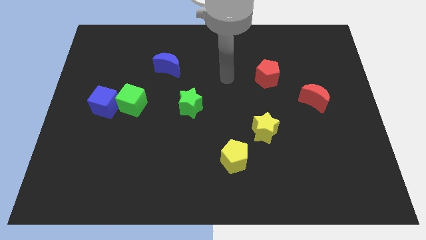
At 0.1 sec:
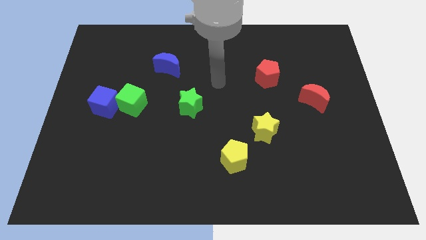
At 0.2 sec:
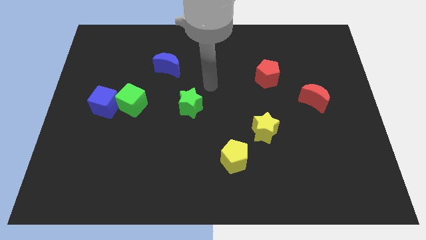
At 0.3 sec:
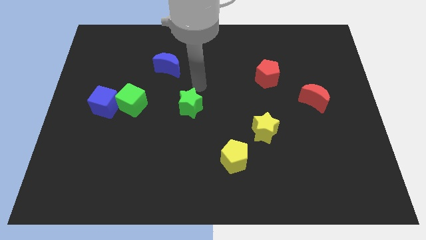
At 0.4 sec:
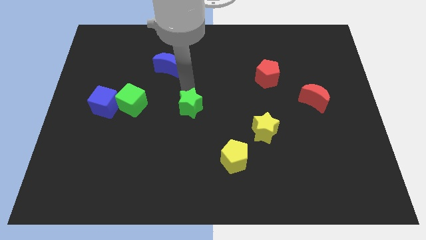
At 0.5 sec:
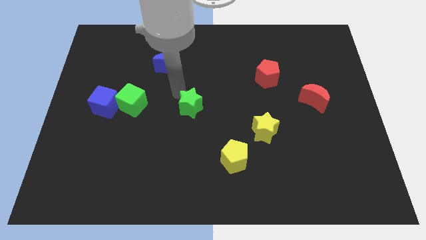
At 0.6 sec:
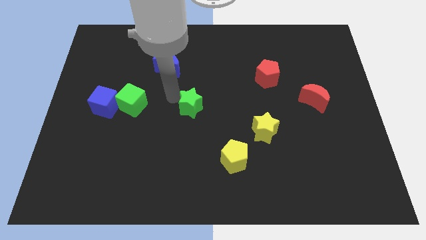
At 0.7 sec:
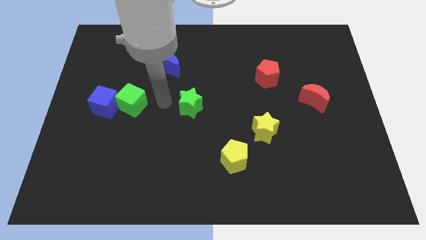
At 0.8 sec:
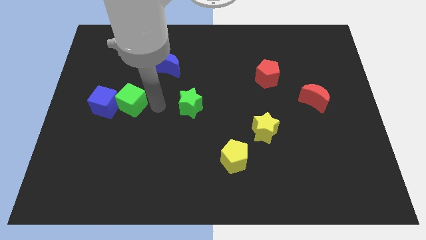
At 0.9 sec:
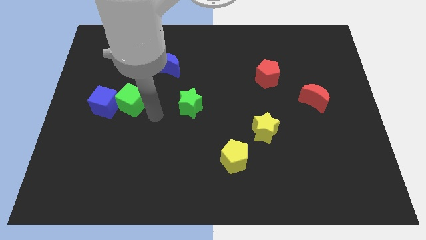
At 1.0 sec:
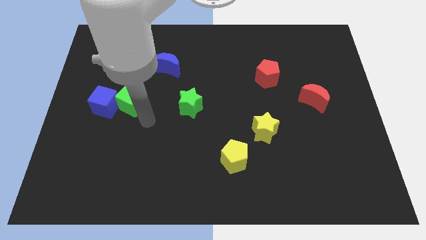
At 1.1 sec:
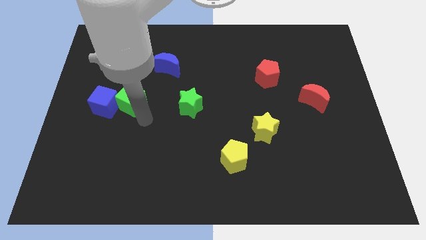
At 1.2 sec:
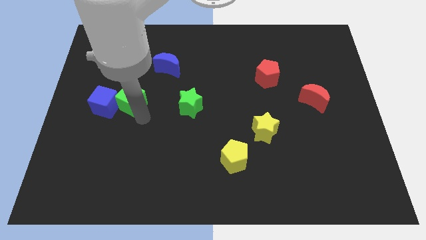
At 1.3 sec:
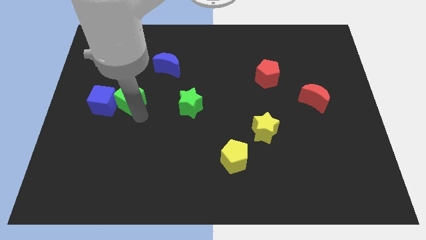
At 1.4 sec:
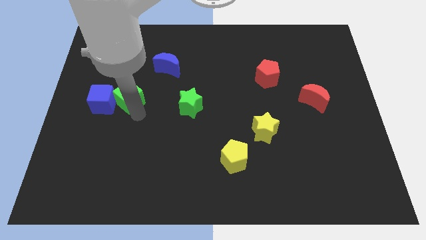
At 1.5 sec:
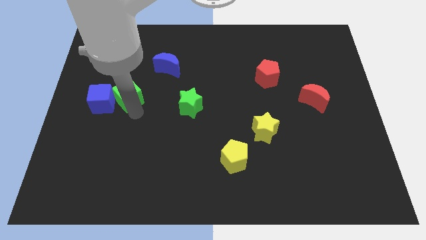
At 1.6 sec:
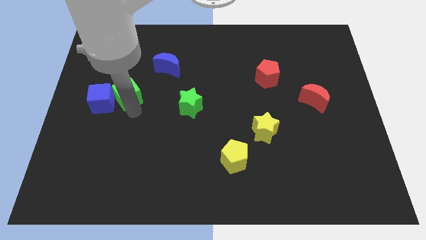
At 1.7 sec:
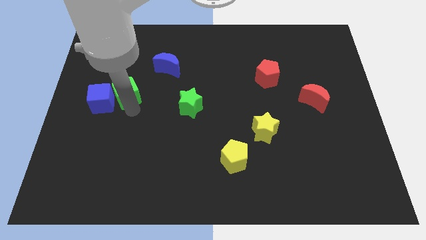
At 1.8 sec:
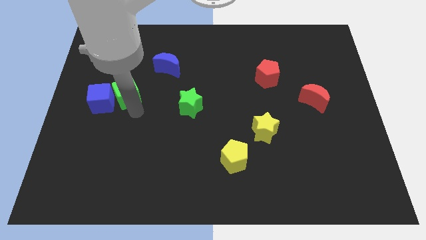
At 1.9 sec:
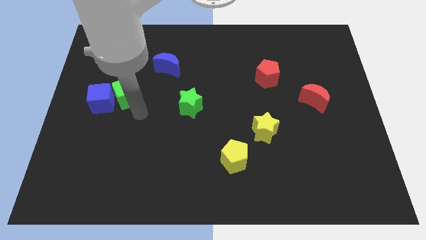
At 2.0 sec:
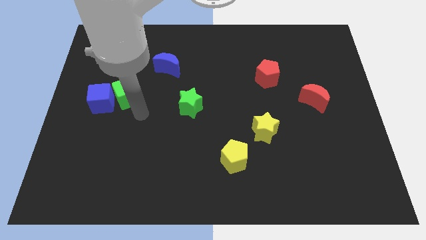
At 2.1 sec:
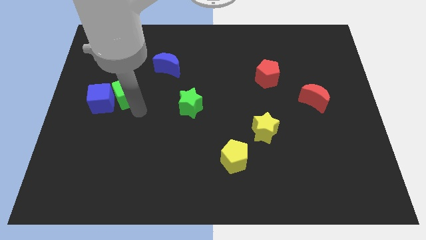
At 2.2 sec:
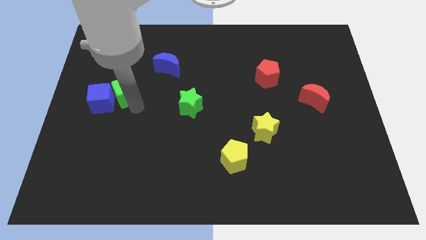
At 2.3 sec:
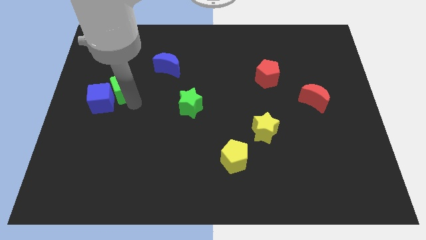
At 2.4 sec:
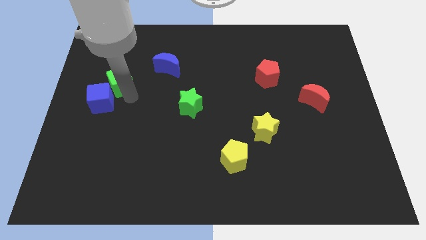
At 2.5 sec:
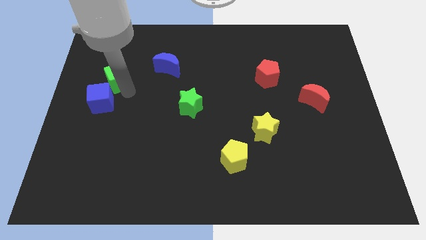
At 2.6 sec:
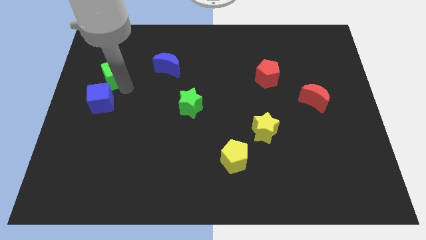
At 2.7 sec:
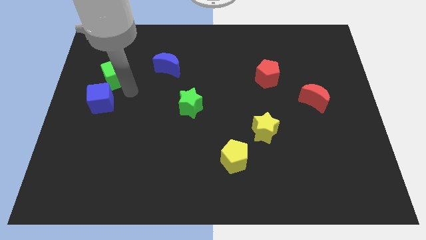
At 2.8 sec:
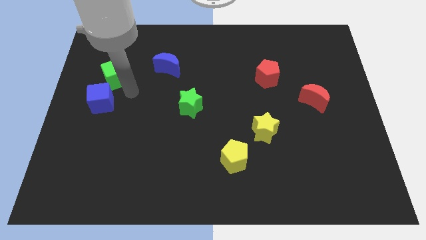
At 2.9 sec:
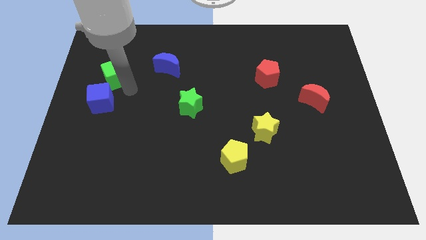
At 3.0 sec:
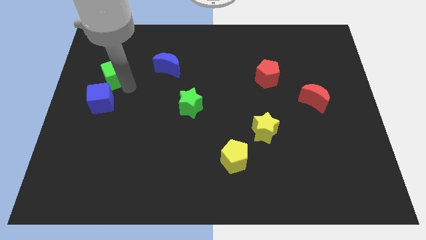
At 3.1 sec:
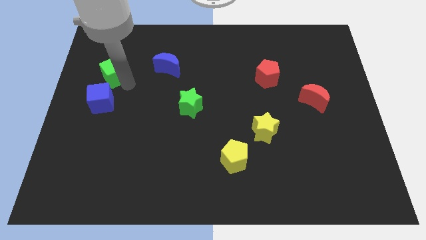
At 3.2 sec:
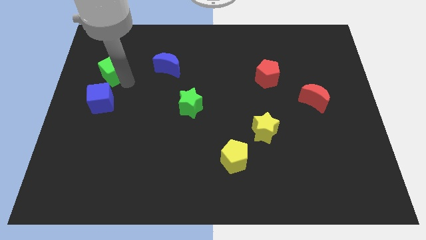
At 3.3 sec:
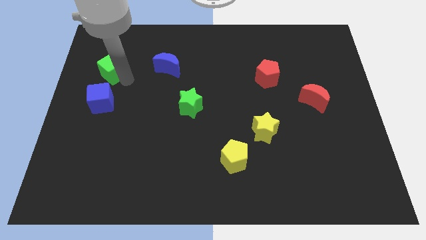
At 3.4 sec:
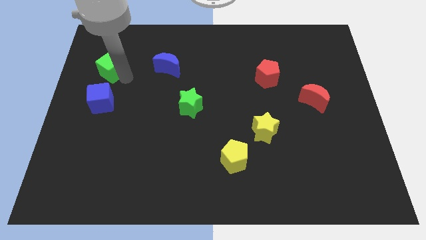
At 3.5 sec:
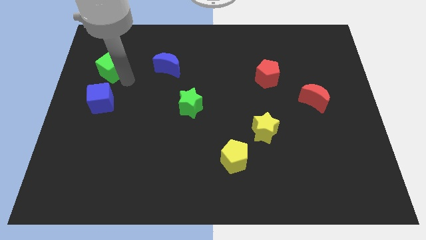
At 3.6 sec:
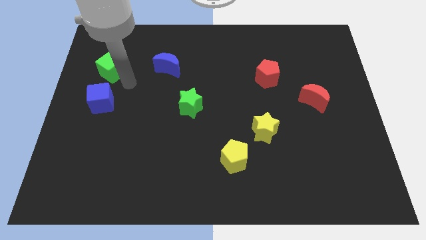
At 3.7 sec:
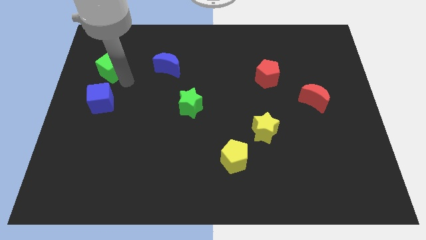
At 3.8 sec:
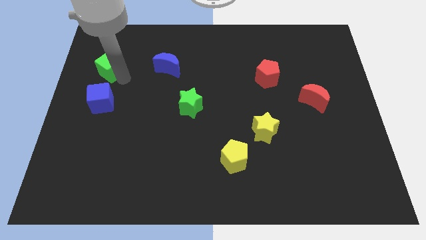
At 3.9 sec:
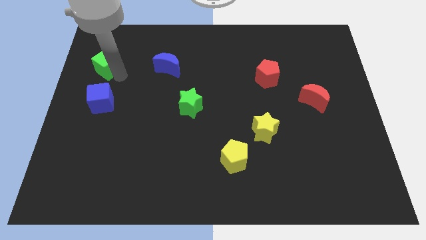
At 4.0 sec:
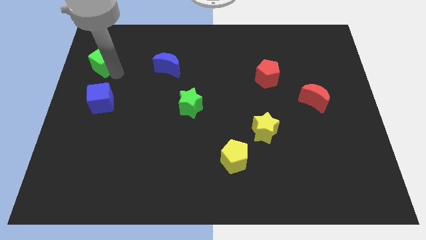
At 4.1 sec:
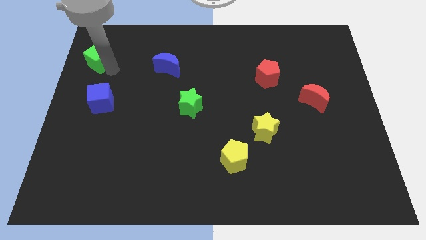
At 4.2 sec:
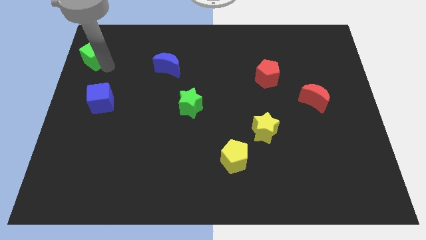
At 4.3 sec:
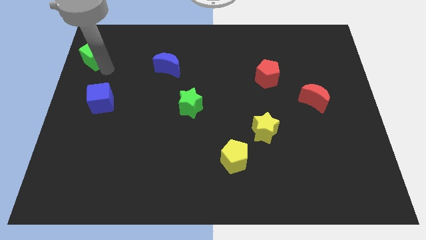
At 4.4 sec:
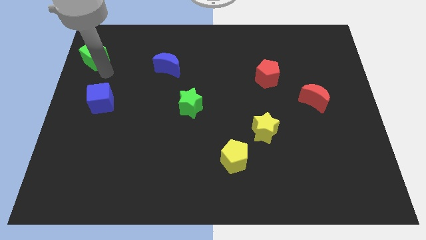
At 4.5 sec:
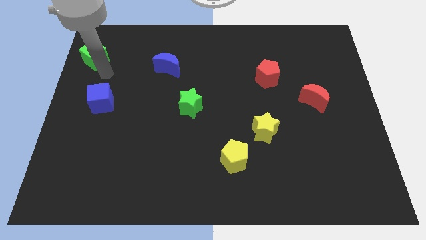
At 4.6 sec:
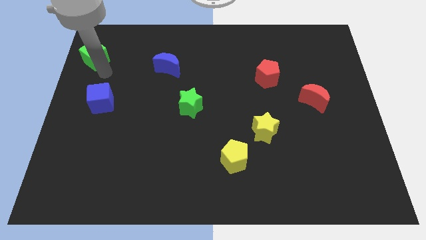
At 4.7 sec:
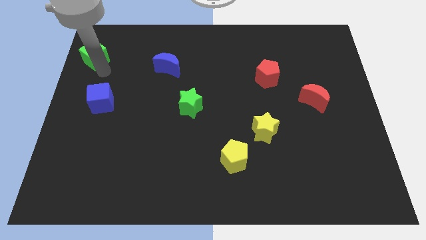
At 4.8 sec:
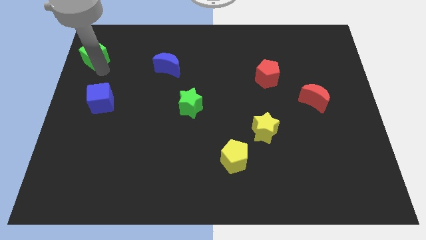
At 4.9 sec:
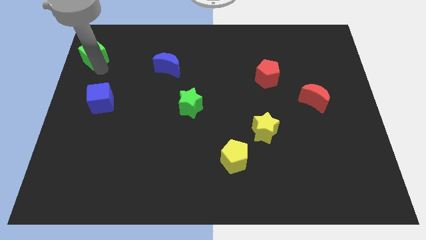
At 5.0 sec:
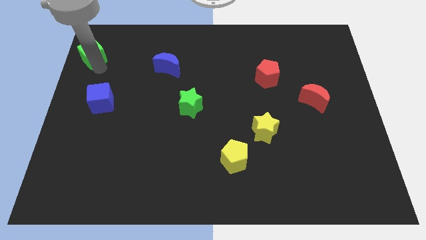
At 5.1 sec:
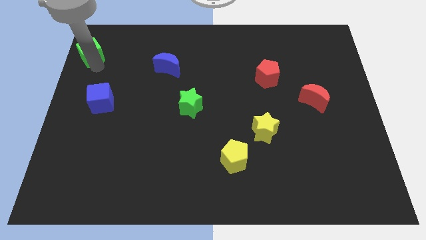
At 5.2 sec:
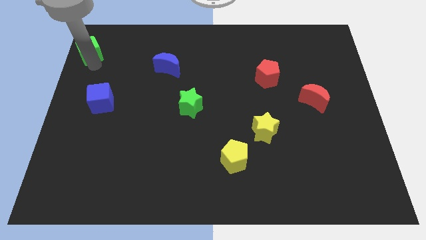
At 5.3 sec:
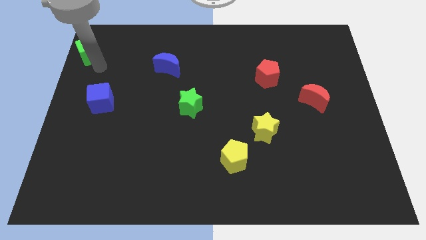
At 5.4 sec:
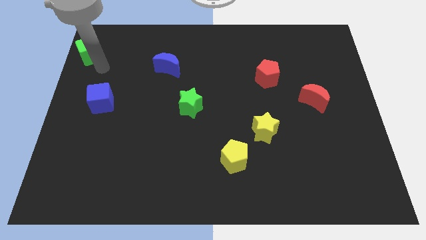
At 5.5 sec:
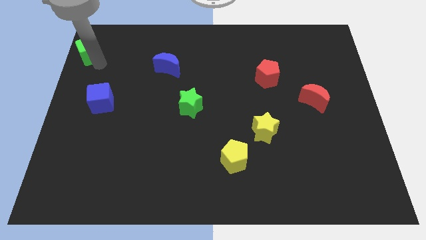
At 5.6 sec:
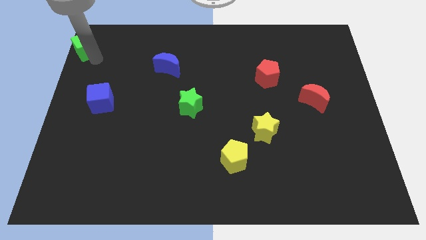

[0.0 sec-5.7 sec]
move the green cube to the top left
